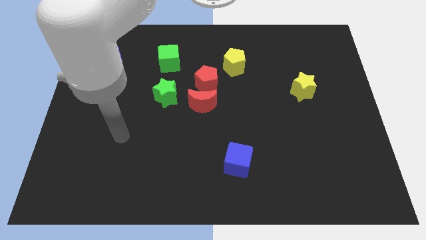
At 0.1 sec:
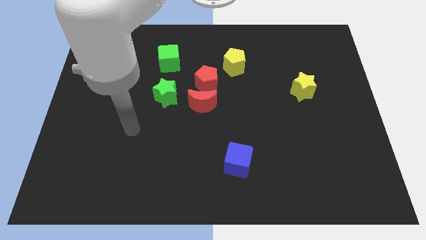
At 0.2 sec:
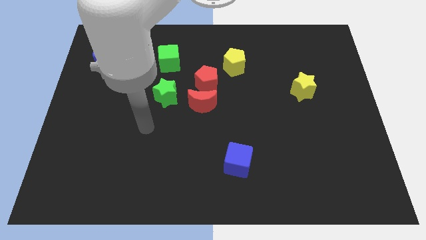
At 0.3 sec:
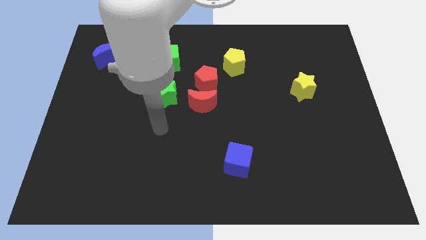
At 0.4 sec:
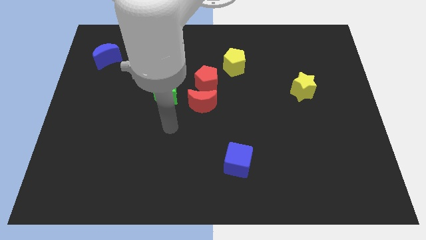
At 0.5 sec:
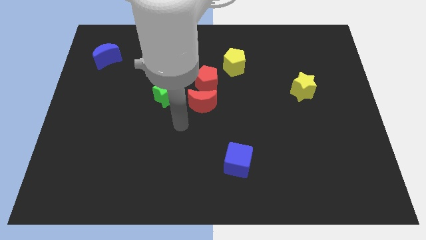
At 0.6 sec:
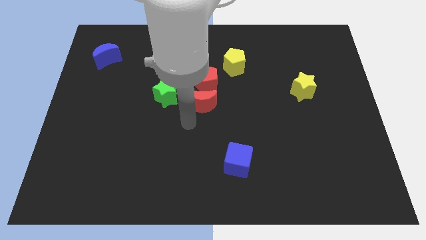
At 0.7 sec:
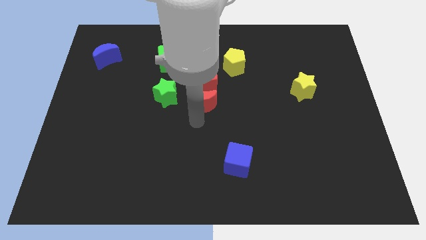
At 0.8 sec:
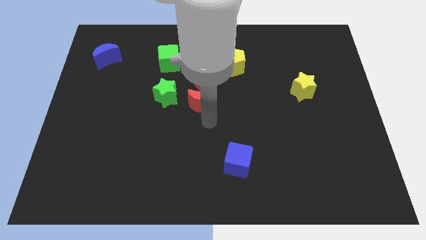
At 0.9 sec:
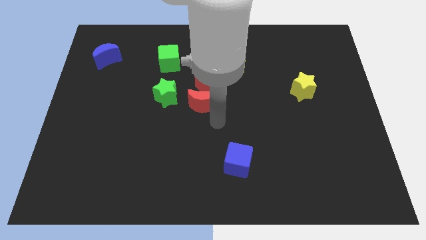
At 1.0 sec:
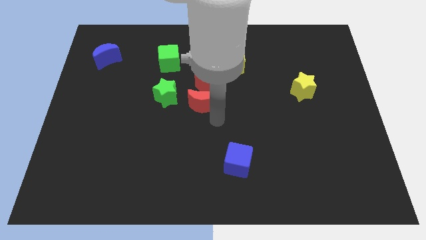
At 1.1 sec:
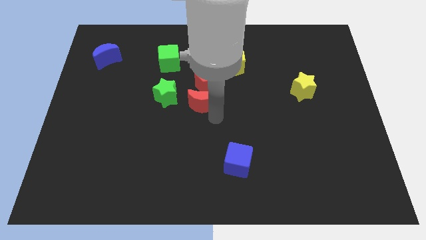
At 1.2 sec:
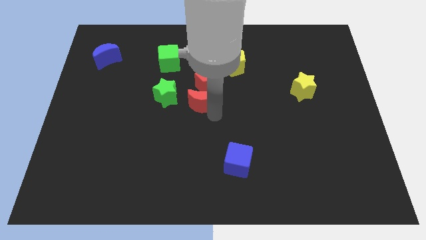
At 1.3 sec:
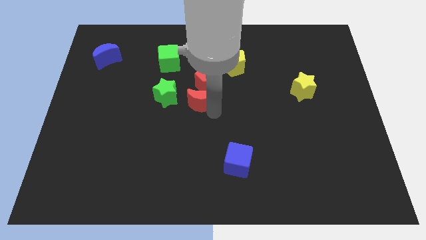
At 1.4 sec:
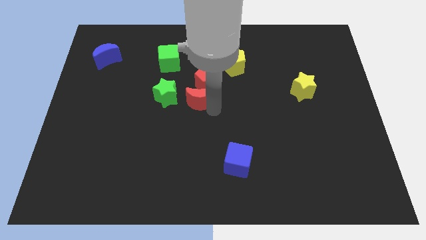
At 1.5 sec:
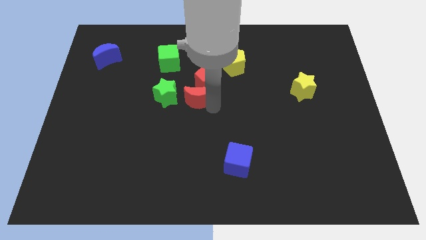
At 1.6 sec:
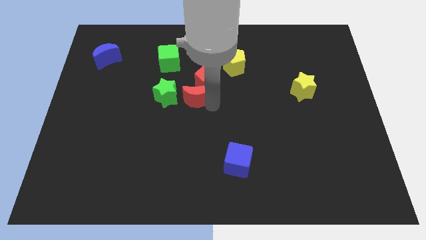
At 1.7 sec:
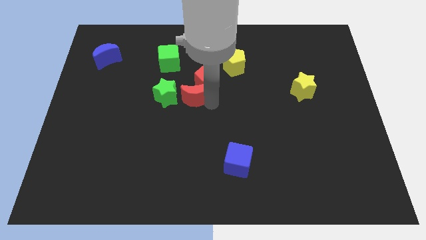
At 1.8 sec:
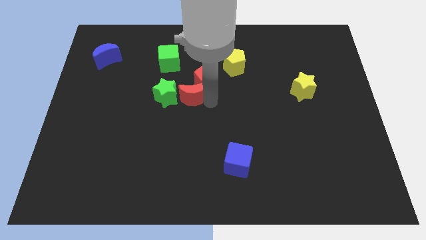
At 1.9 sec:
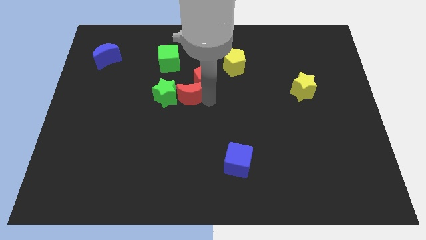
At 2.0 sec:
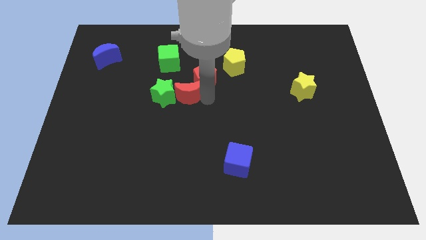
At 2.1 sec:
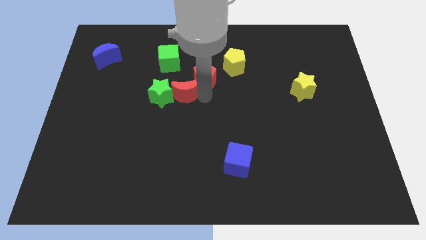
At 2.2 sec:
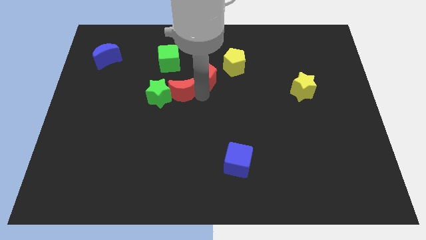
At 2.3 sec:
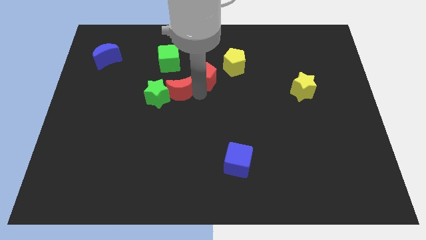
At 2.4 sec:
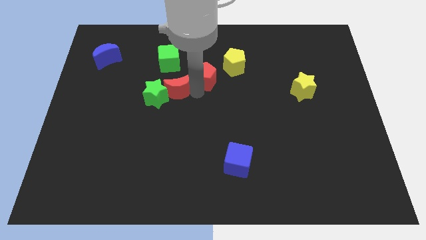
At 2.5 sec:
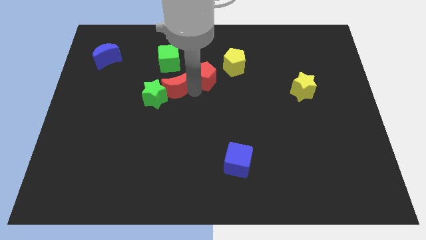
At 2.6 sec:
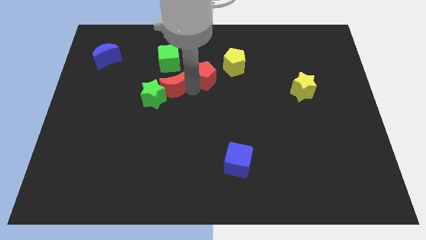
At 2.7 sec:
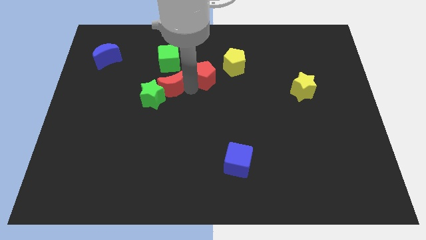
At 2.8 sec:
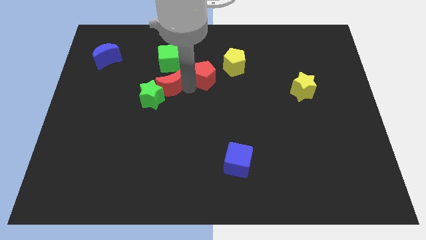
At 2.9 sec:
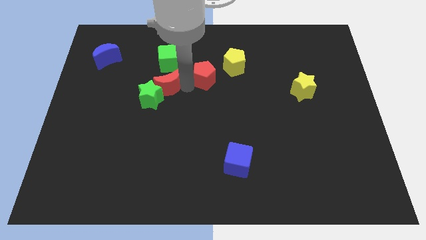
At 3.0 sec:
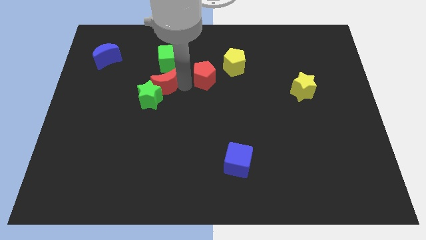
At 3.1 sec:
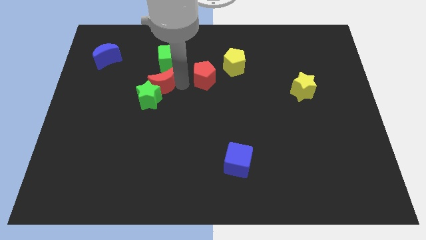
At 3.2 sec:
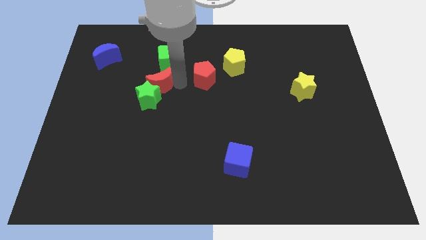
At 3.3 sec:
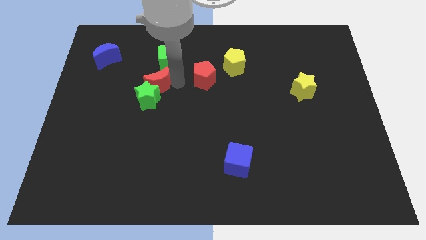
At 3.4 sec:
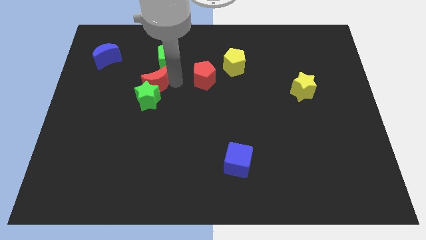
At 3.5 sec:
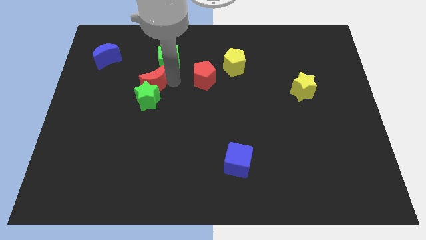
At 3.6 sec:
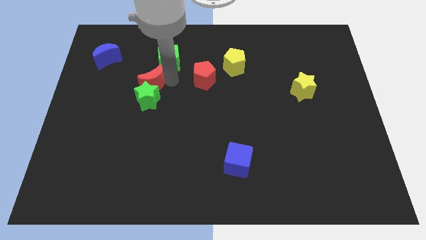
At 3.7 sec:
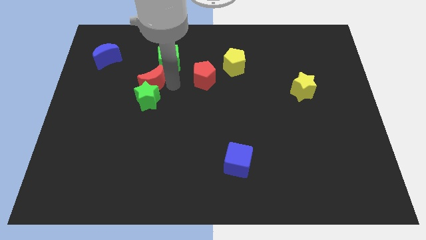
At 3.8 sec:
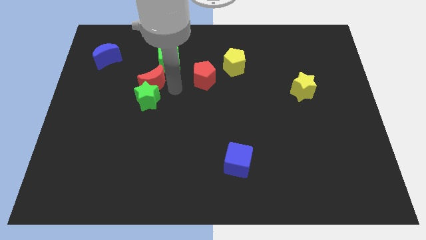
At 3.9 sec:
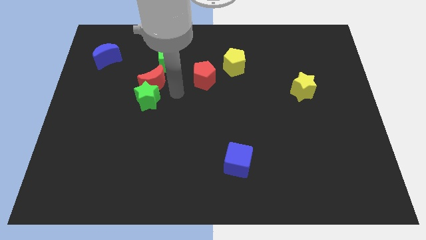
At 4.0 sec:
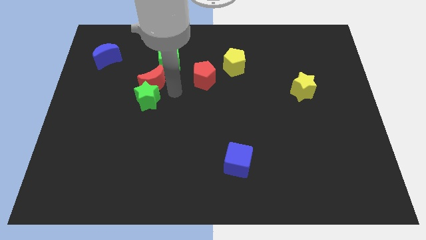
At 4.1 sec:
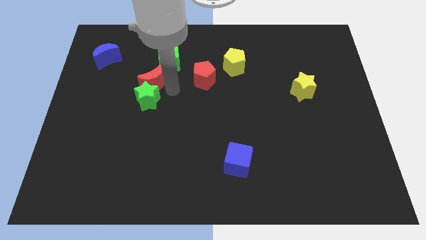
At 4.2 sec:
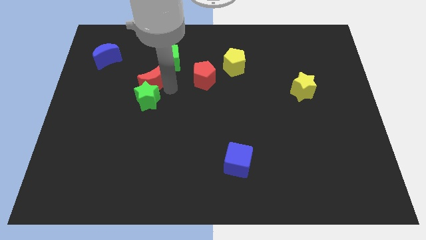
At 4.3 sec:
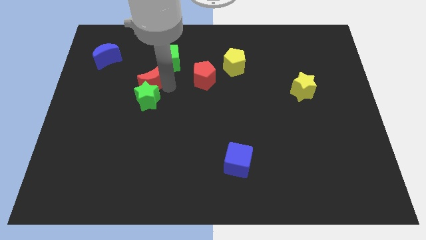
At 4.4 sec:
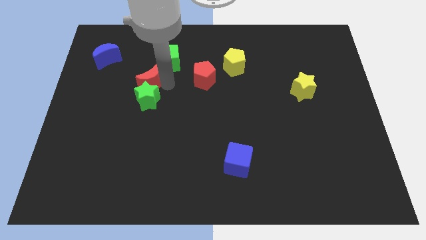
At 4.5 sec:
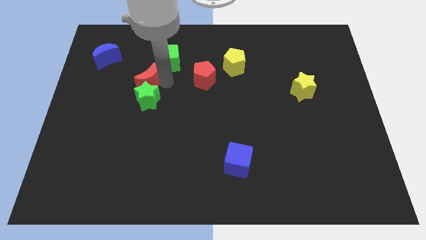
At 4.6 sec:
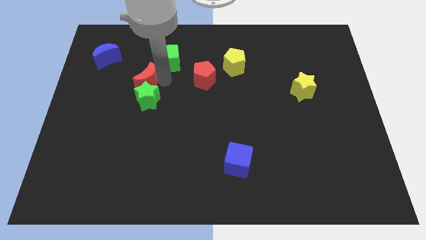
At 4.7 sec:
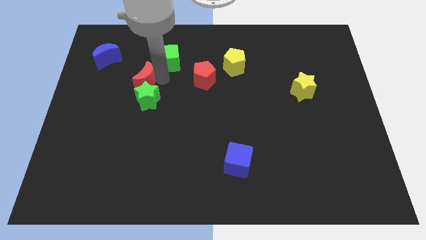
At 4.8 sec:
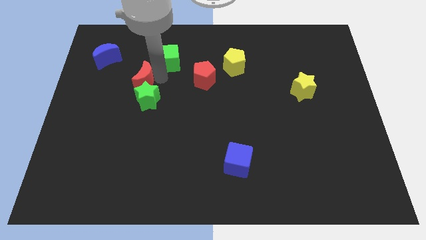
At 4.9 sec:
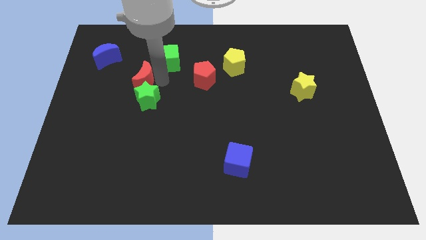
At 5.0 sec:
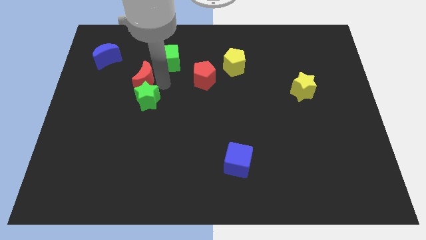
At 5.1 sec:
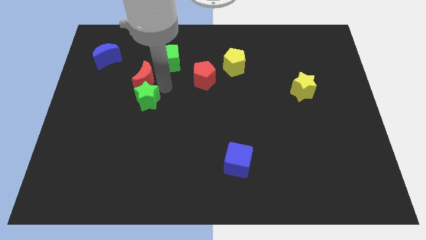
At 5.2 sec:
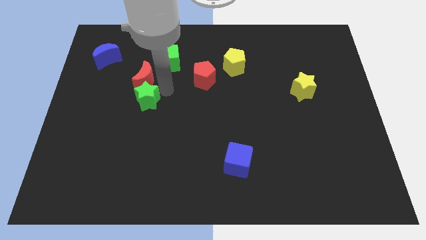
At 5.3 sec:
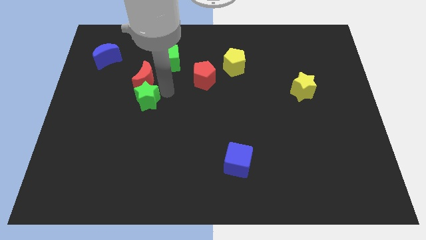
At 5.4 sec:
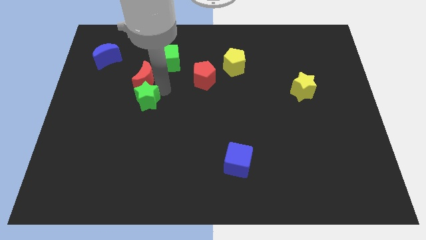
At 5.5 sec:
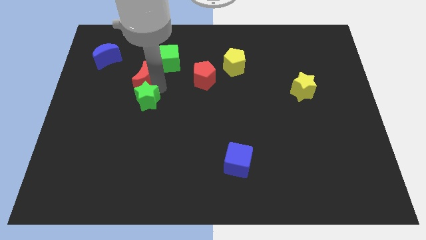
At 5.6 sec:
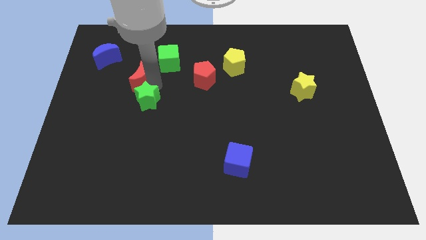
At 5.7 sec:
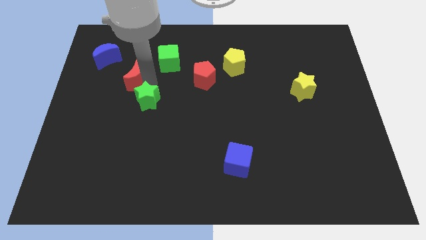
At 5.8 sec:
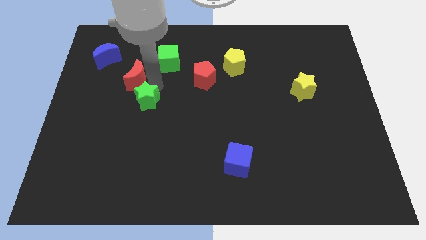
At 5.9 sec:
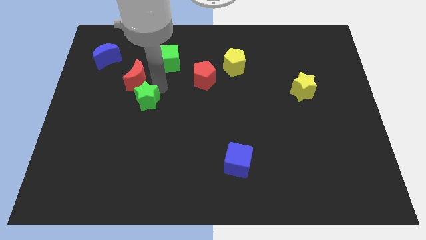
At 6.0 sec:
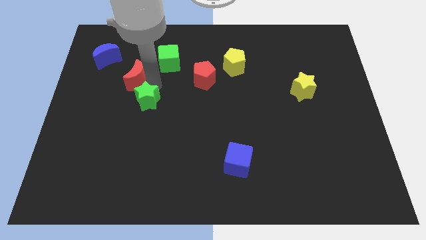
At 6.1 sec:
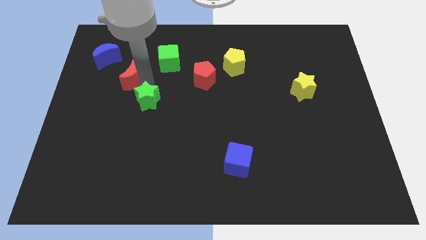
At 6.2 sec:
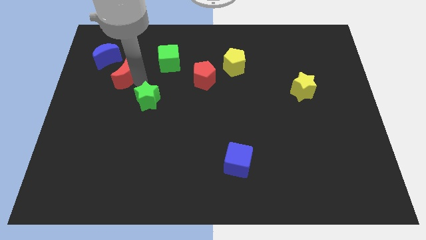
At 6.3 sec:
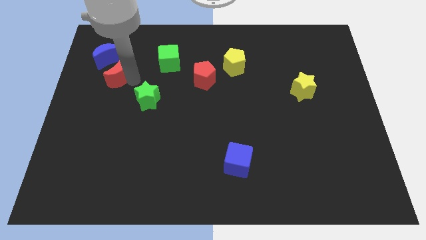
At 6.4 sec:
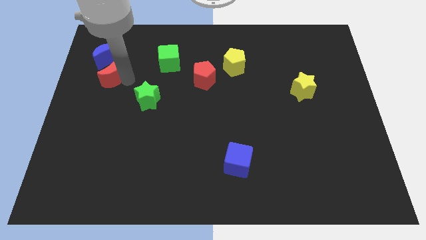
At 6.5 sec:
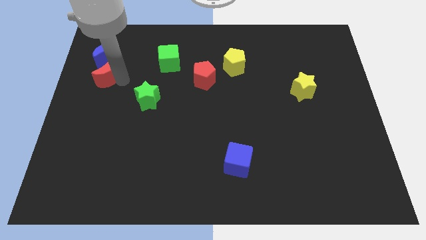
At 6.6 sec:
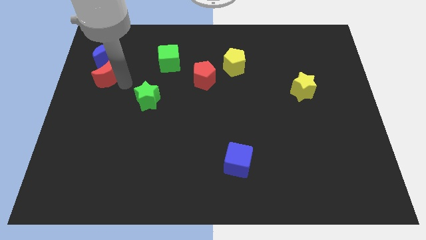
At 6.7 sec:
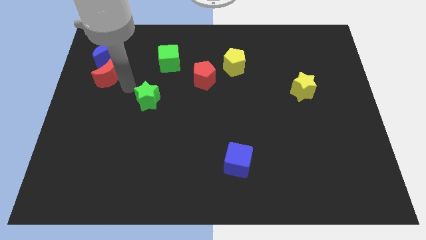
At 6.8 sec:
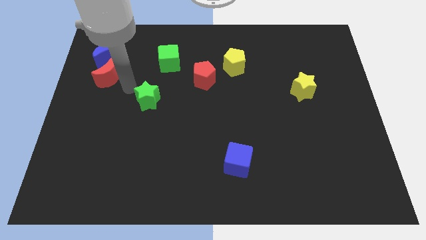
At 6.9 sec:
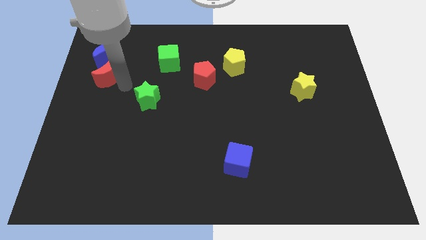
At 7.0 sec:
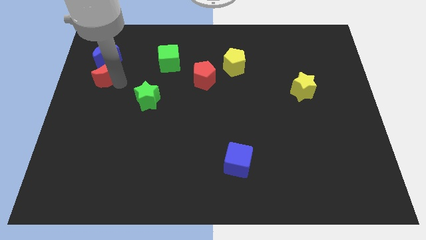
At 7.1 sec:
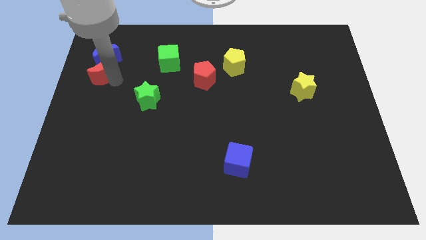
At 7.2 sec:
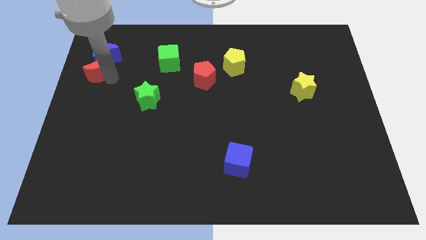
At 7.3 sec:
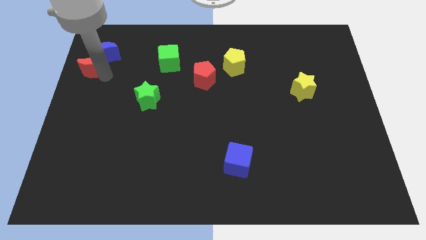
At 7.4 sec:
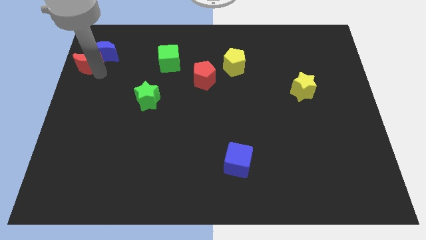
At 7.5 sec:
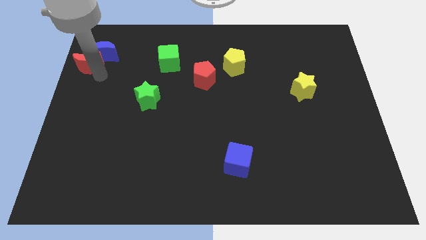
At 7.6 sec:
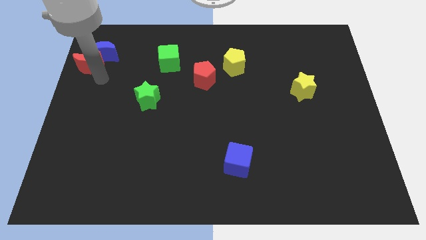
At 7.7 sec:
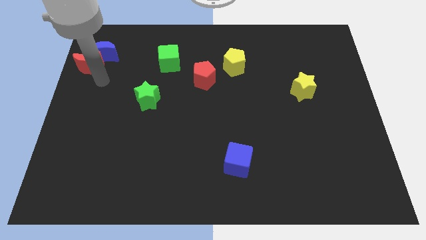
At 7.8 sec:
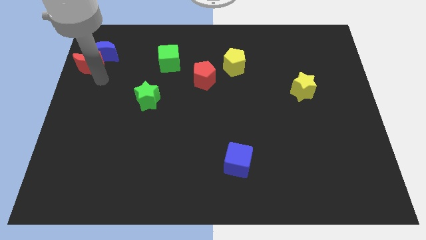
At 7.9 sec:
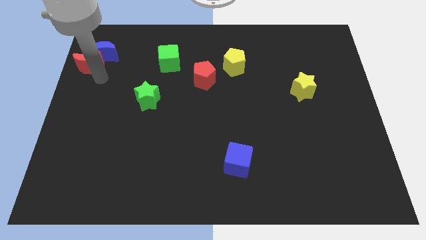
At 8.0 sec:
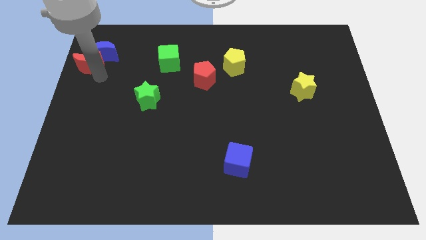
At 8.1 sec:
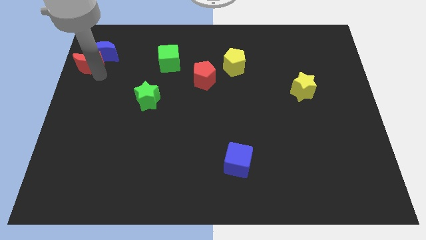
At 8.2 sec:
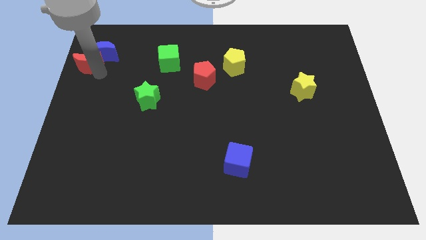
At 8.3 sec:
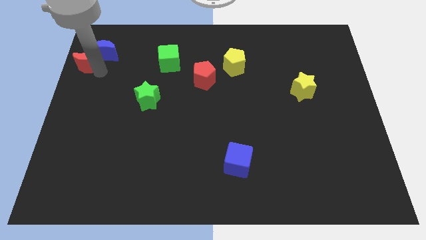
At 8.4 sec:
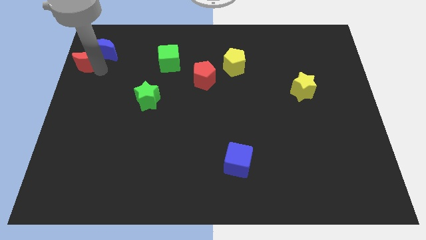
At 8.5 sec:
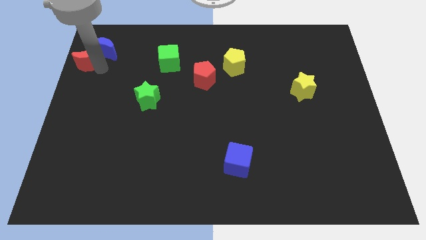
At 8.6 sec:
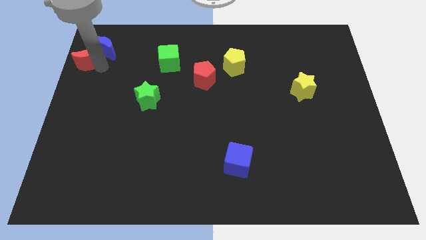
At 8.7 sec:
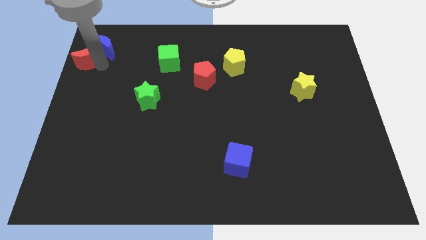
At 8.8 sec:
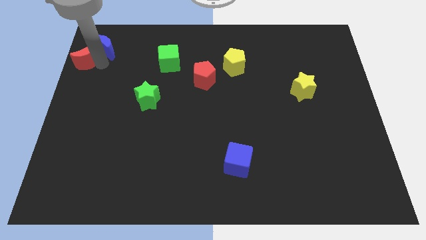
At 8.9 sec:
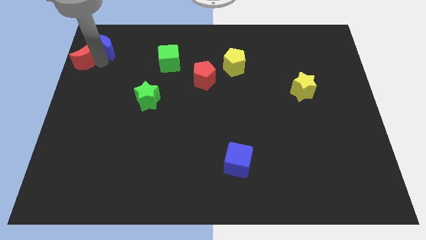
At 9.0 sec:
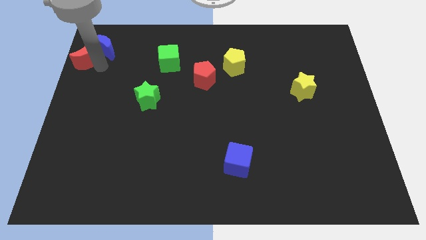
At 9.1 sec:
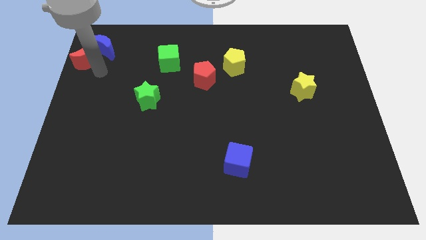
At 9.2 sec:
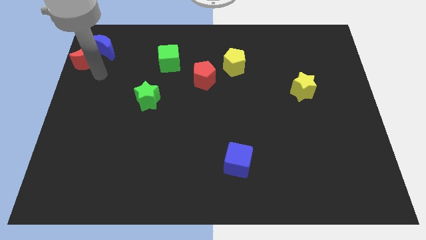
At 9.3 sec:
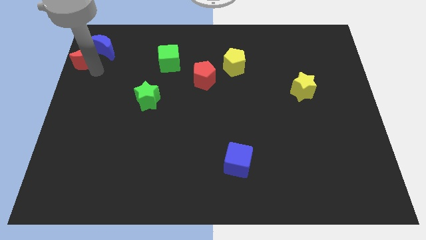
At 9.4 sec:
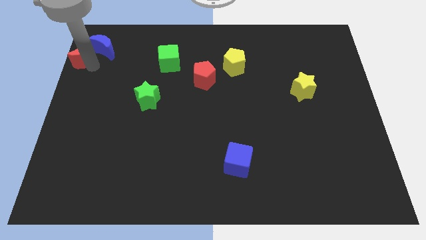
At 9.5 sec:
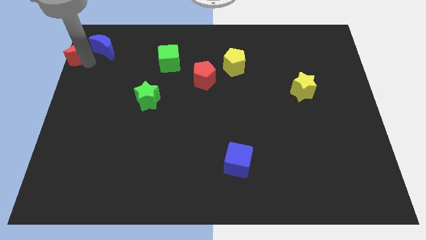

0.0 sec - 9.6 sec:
push the red moon to the top left corner
